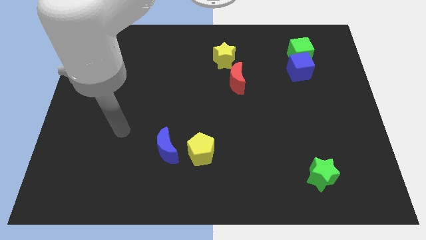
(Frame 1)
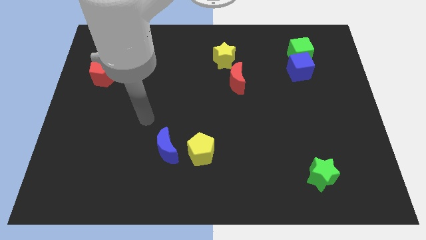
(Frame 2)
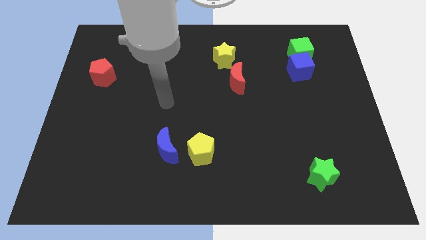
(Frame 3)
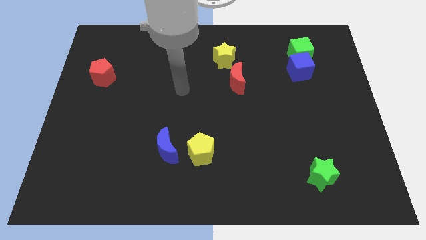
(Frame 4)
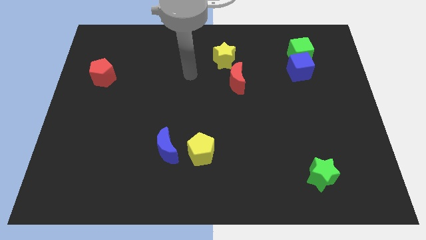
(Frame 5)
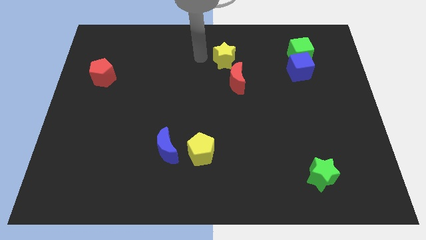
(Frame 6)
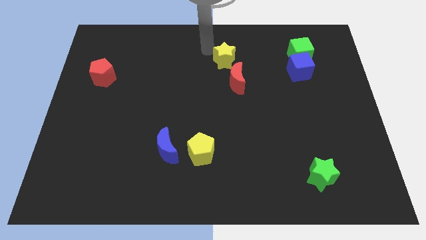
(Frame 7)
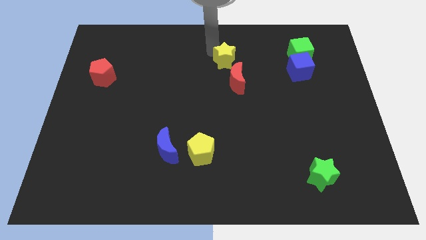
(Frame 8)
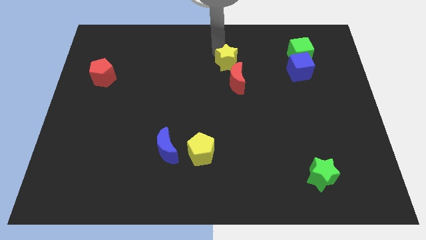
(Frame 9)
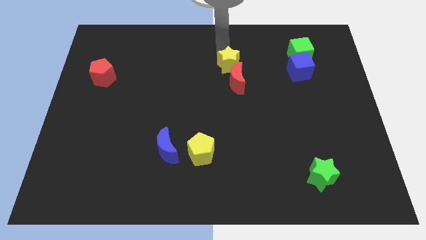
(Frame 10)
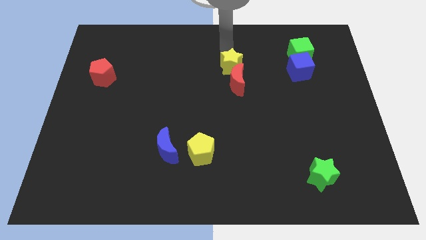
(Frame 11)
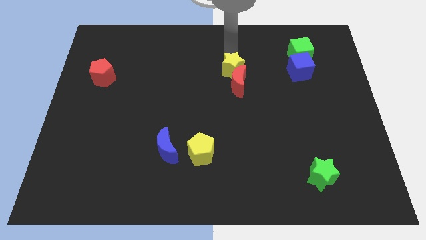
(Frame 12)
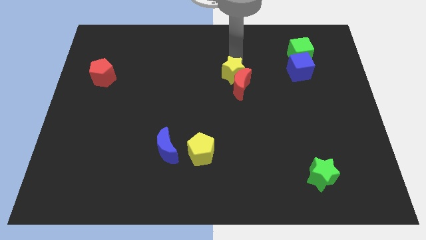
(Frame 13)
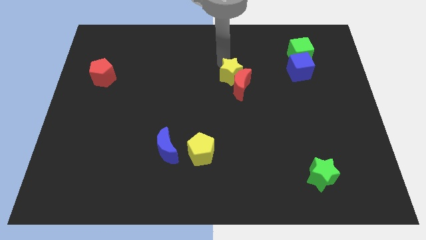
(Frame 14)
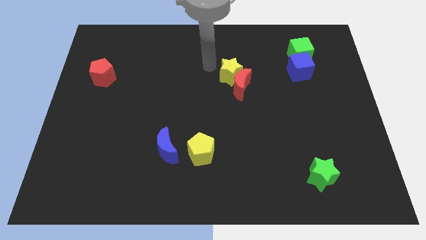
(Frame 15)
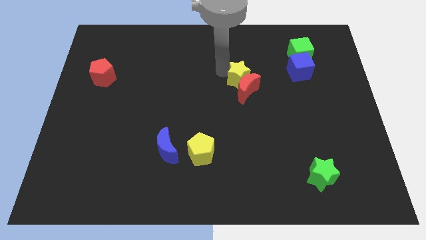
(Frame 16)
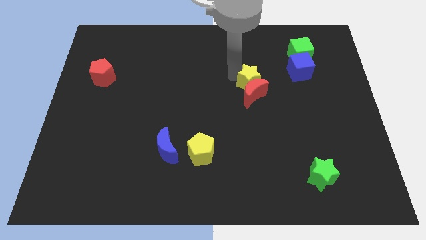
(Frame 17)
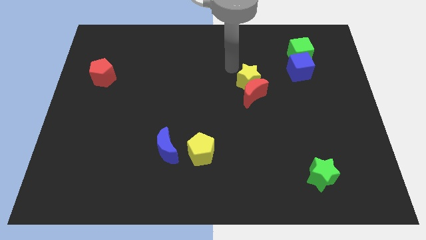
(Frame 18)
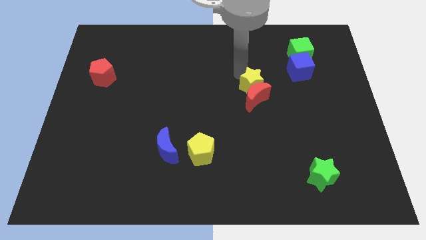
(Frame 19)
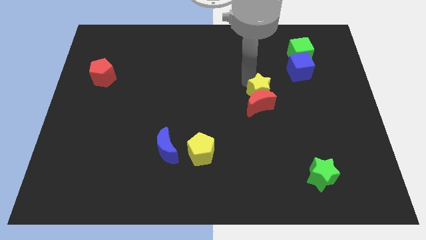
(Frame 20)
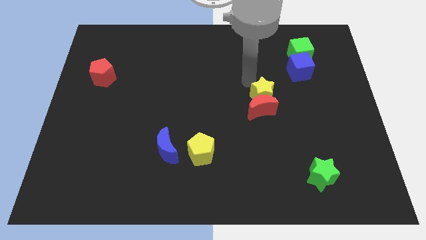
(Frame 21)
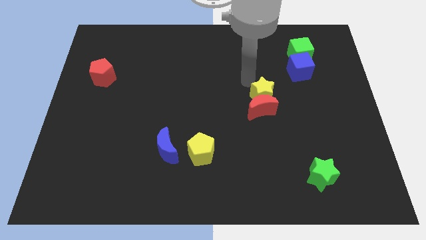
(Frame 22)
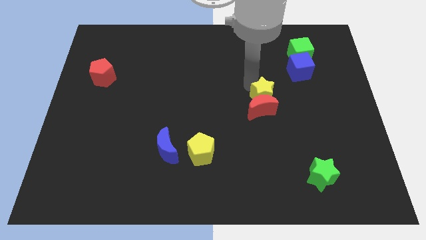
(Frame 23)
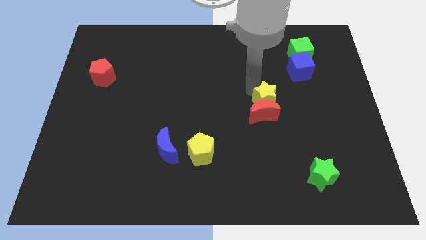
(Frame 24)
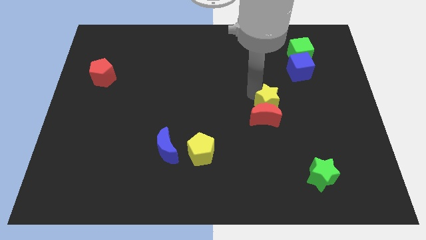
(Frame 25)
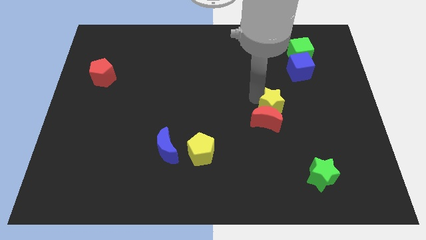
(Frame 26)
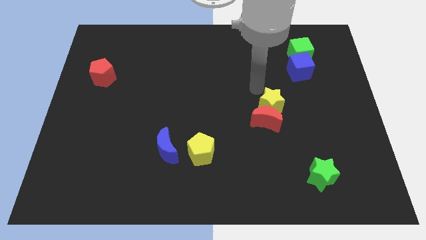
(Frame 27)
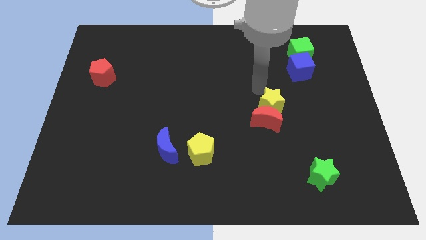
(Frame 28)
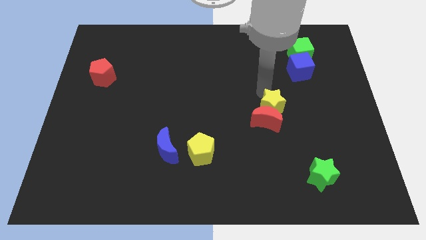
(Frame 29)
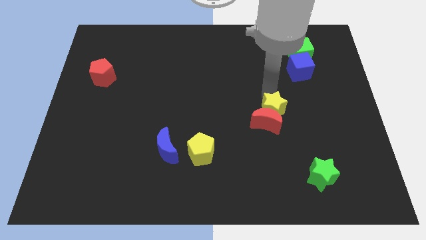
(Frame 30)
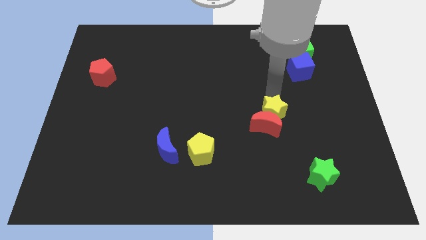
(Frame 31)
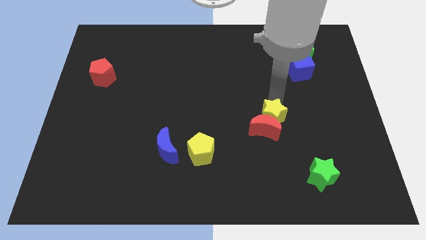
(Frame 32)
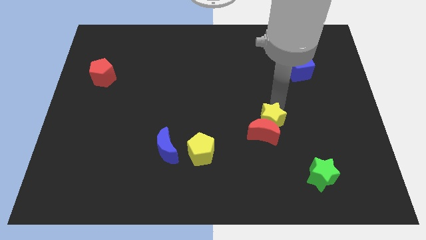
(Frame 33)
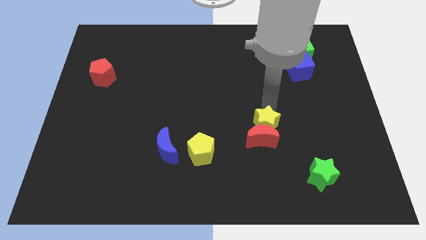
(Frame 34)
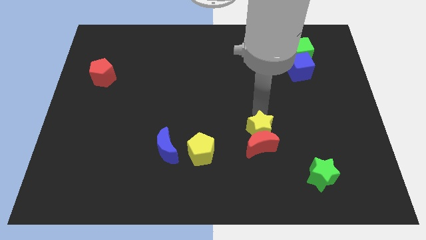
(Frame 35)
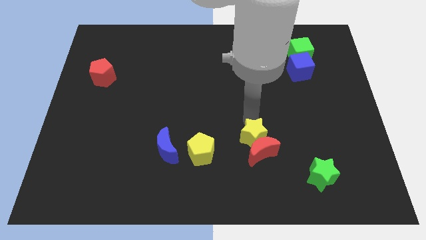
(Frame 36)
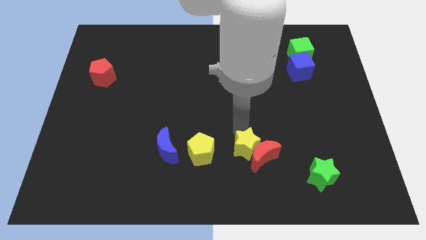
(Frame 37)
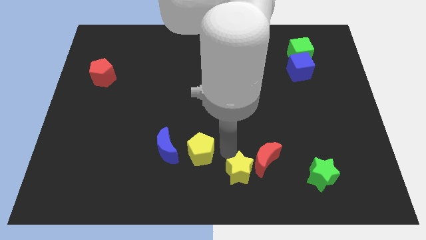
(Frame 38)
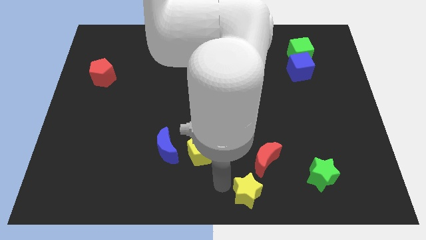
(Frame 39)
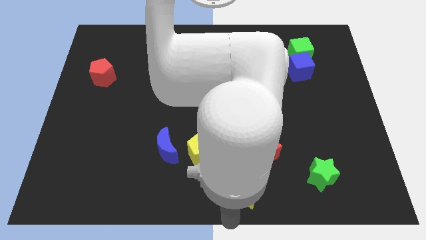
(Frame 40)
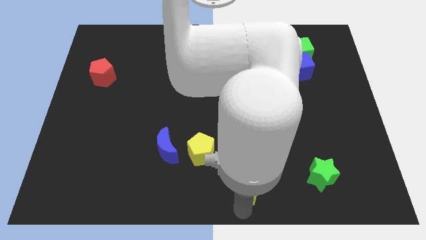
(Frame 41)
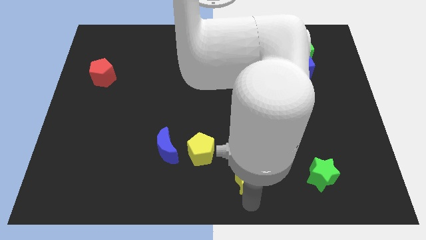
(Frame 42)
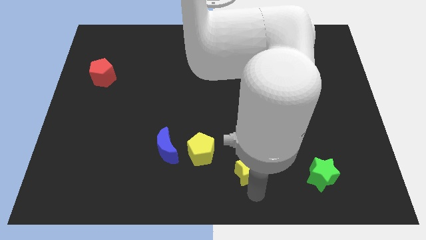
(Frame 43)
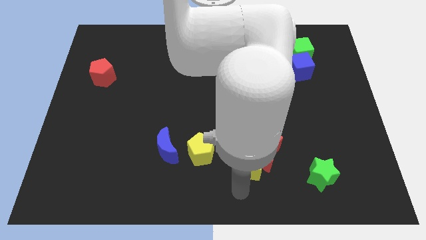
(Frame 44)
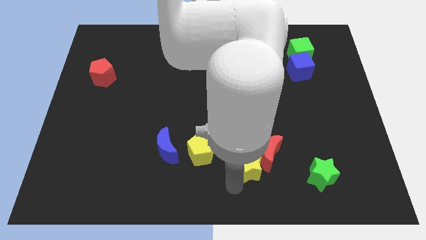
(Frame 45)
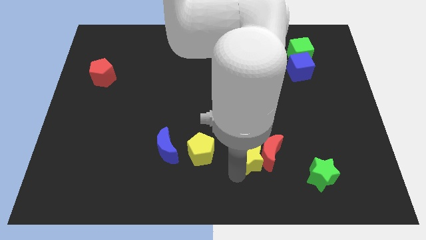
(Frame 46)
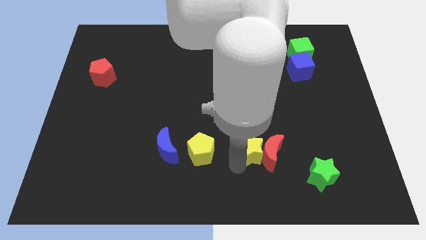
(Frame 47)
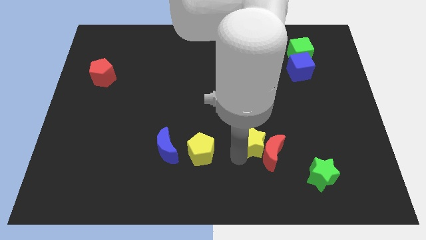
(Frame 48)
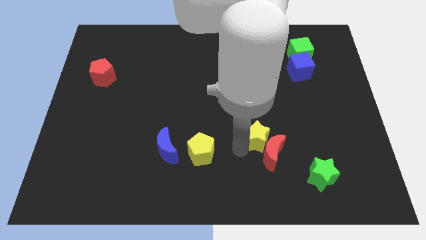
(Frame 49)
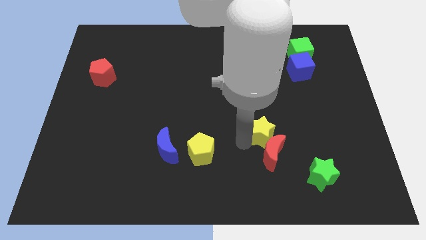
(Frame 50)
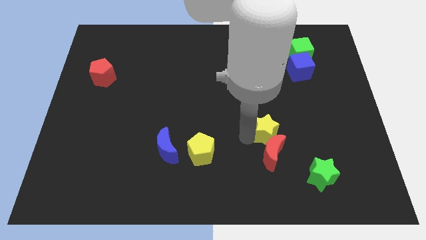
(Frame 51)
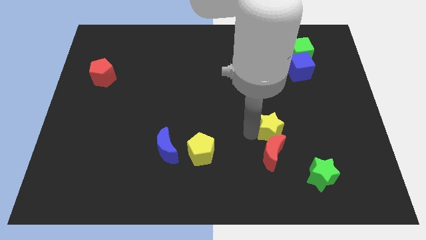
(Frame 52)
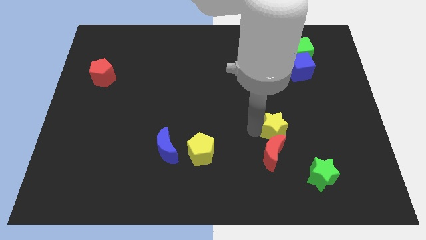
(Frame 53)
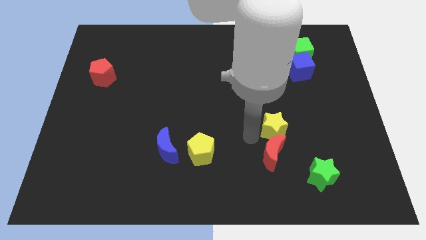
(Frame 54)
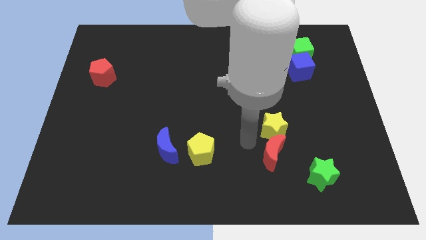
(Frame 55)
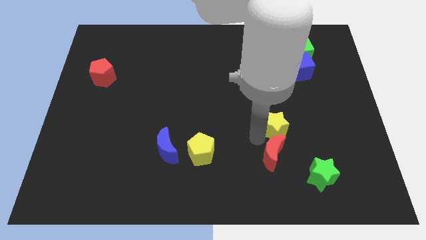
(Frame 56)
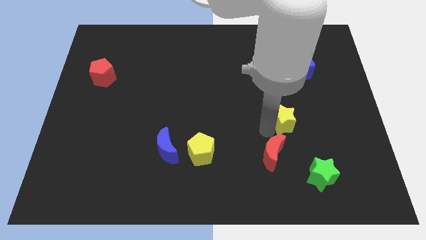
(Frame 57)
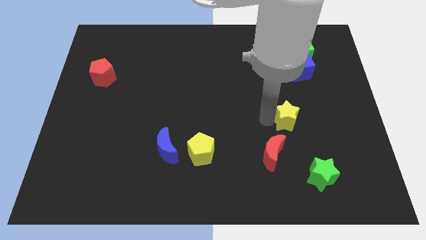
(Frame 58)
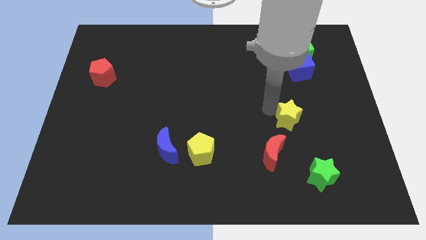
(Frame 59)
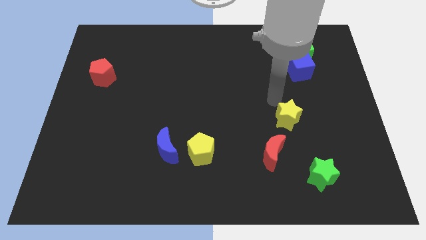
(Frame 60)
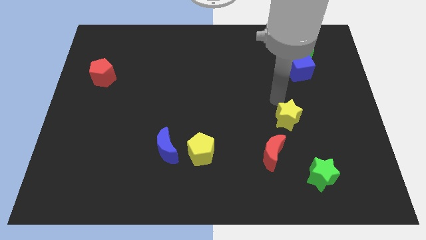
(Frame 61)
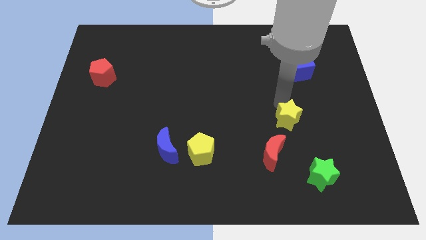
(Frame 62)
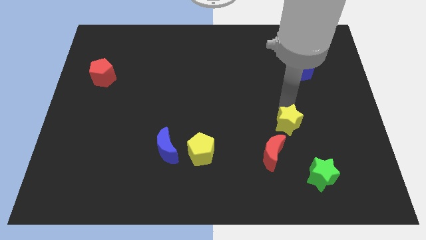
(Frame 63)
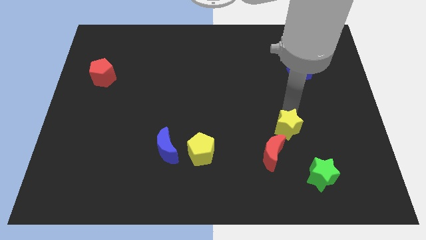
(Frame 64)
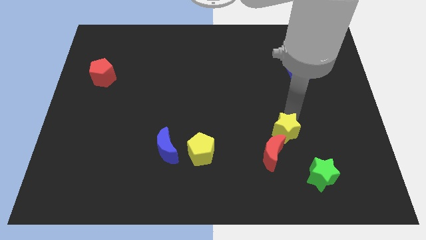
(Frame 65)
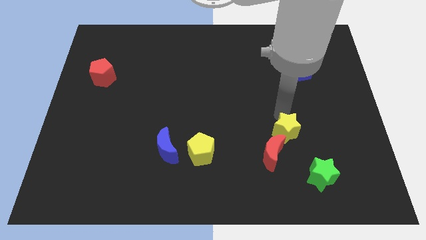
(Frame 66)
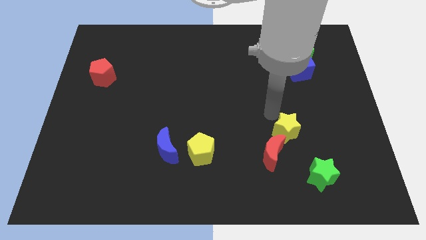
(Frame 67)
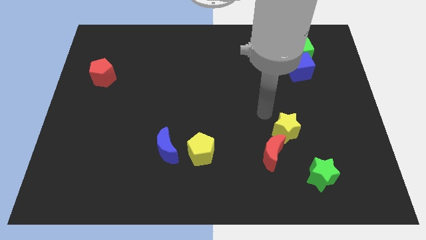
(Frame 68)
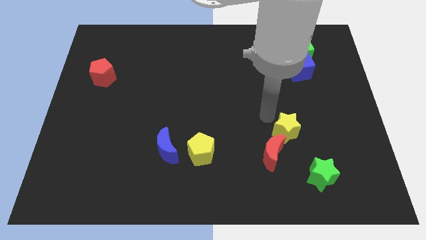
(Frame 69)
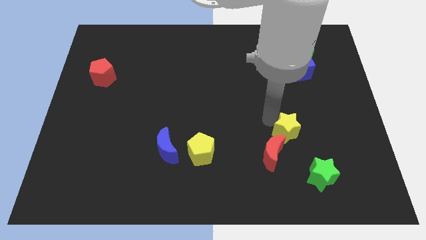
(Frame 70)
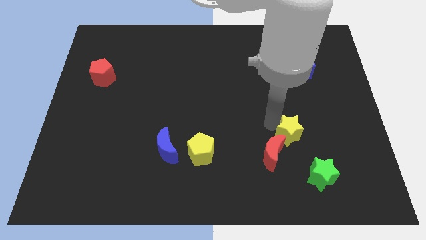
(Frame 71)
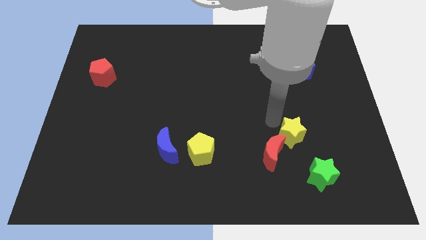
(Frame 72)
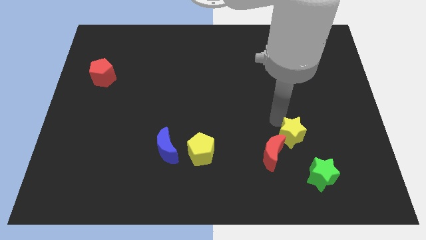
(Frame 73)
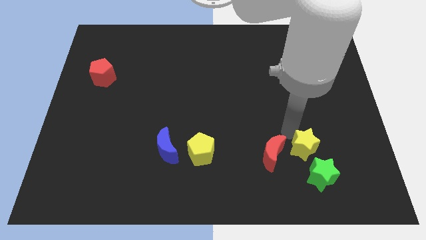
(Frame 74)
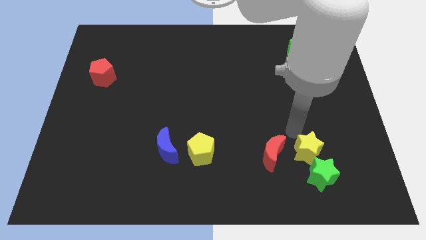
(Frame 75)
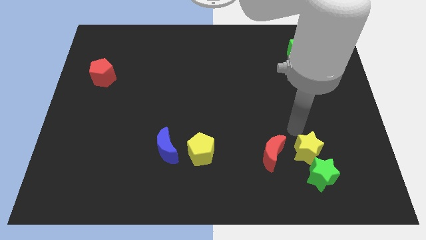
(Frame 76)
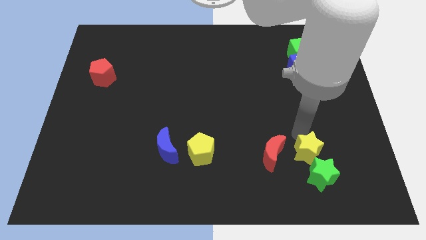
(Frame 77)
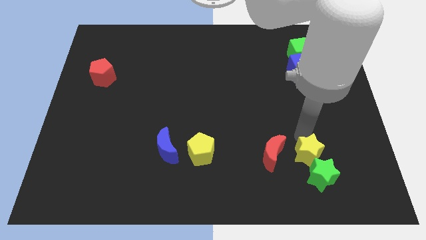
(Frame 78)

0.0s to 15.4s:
put the yellow star close to the green star
